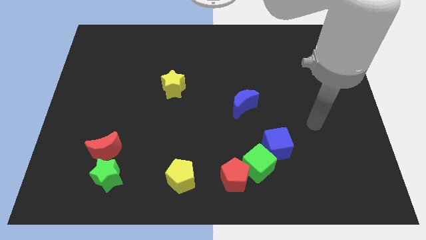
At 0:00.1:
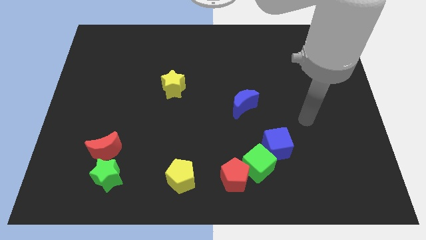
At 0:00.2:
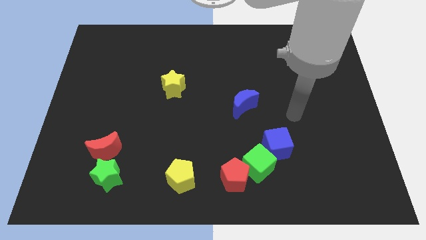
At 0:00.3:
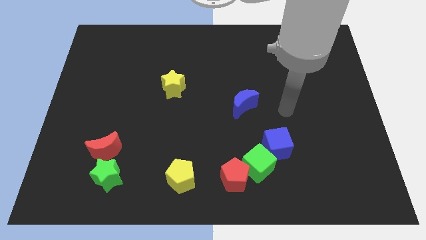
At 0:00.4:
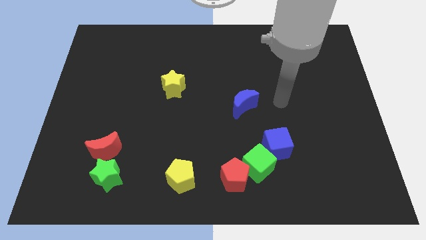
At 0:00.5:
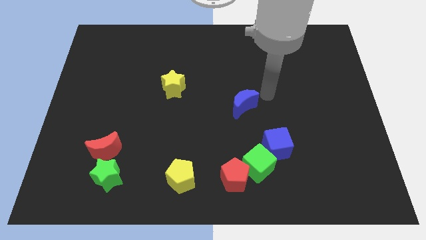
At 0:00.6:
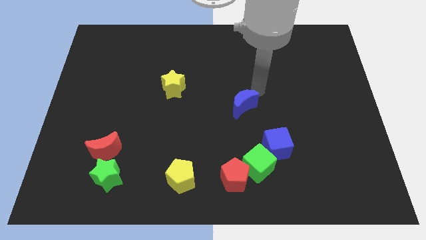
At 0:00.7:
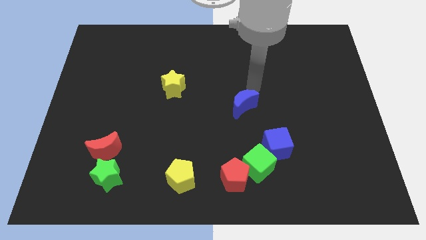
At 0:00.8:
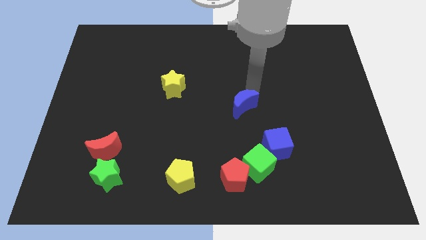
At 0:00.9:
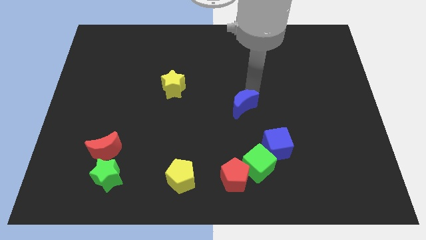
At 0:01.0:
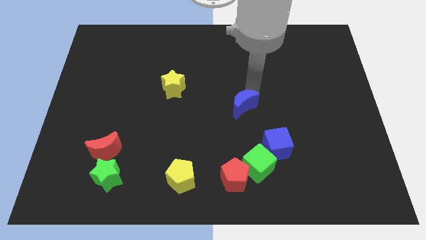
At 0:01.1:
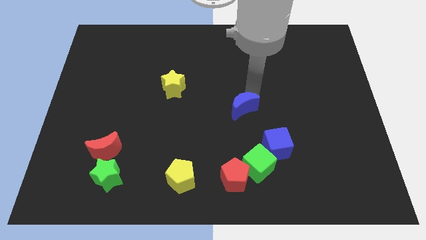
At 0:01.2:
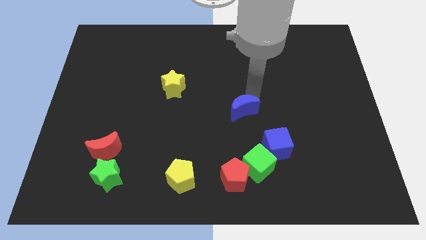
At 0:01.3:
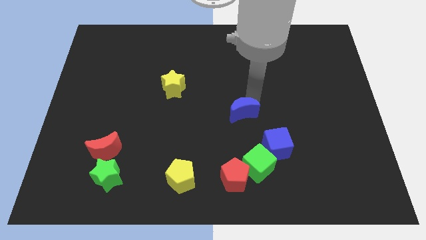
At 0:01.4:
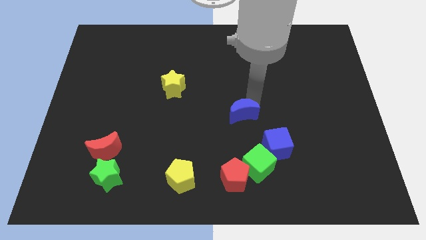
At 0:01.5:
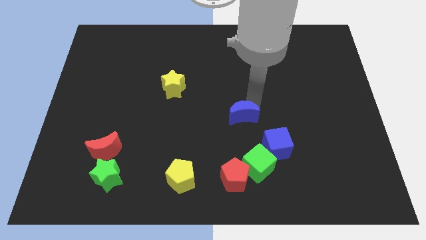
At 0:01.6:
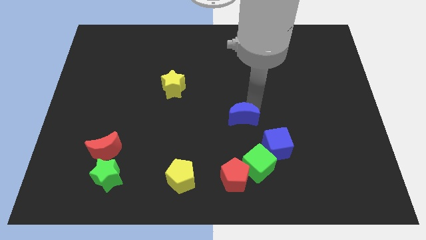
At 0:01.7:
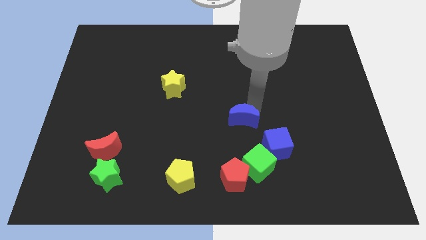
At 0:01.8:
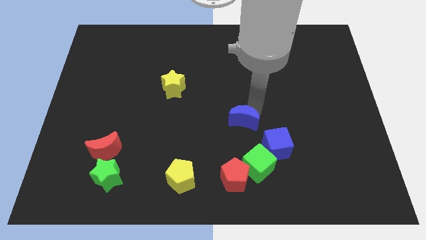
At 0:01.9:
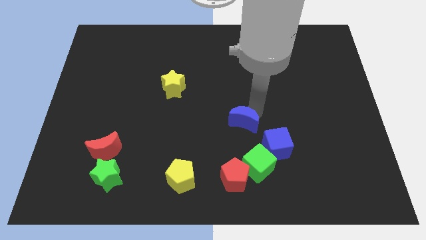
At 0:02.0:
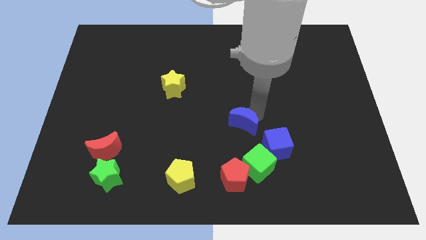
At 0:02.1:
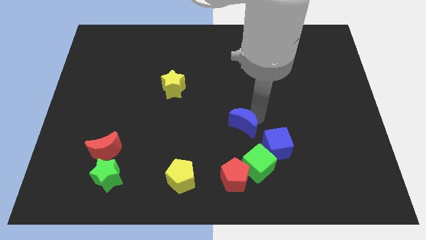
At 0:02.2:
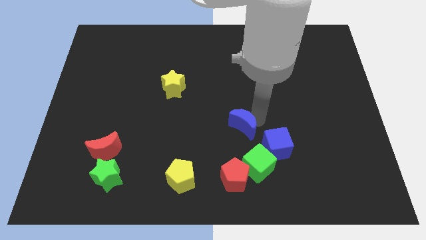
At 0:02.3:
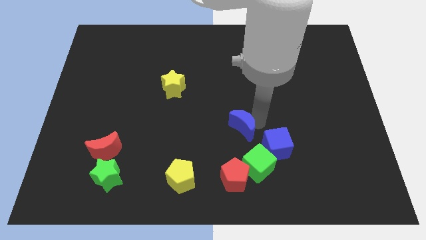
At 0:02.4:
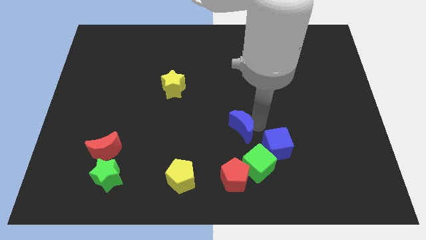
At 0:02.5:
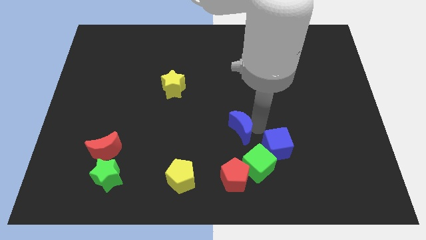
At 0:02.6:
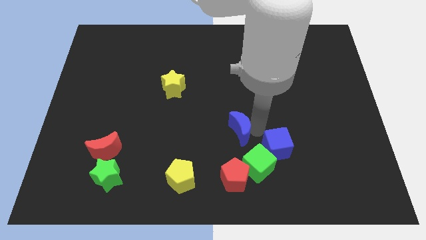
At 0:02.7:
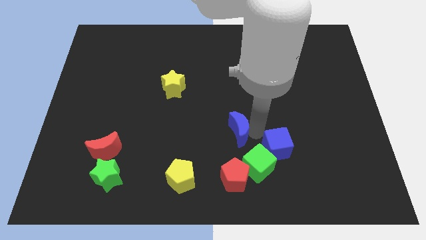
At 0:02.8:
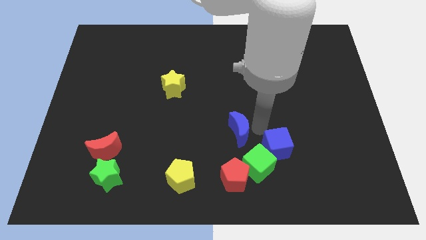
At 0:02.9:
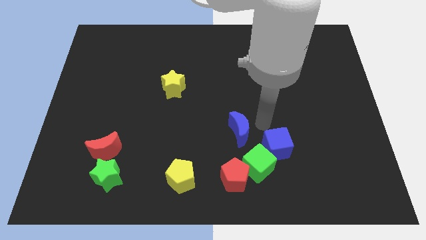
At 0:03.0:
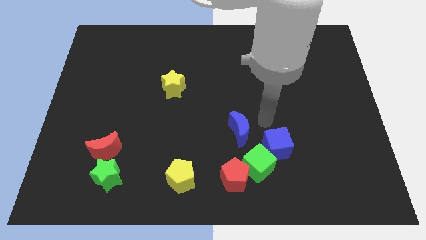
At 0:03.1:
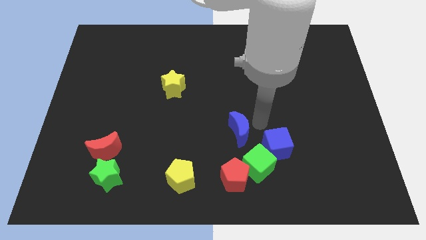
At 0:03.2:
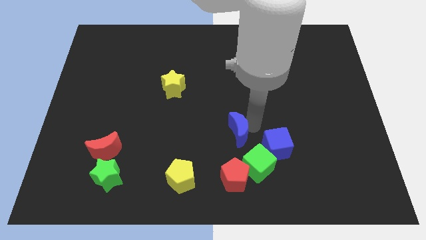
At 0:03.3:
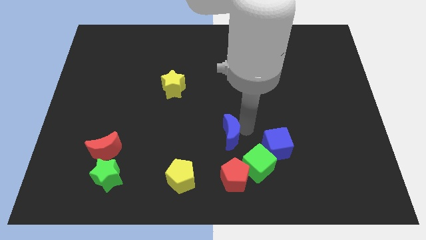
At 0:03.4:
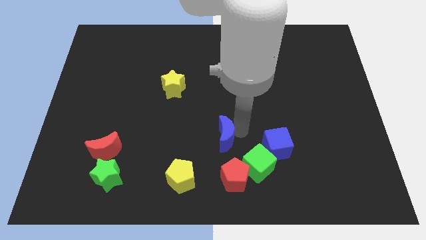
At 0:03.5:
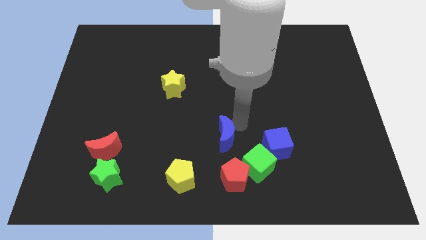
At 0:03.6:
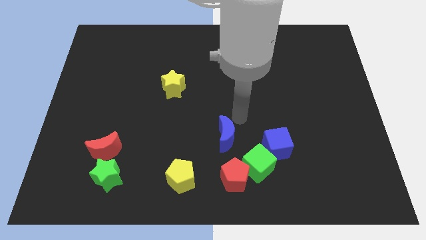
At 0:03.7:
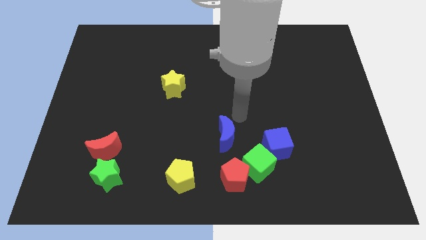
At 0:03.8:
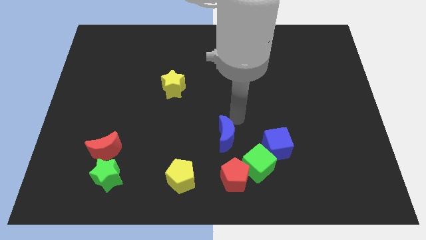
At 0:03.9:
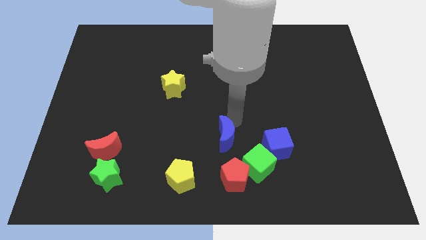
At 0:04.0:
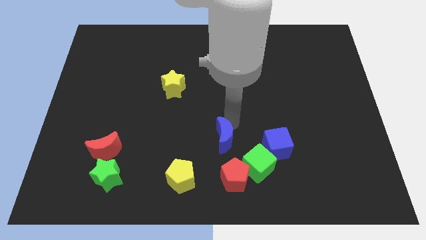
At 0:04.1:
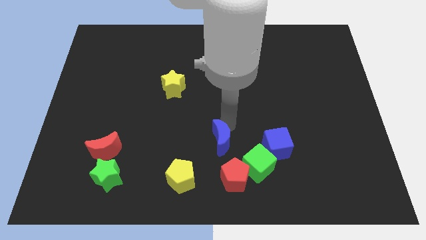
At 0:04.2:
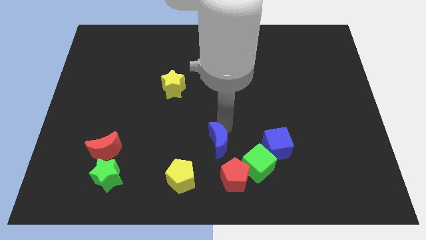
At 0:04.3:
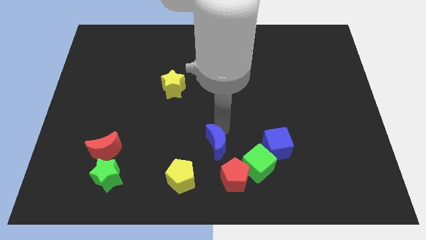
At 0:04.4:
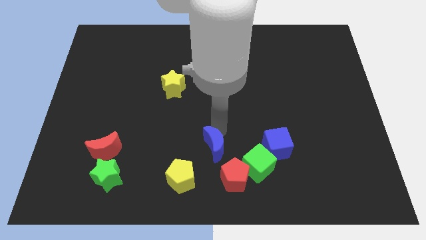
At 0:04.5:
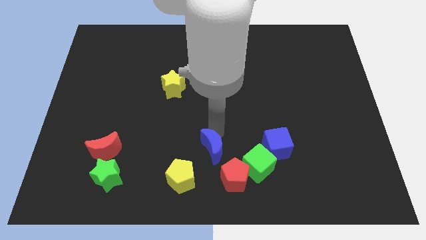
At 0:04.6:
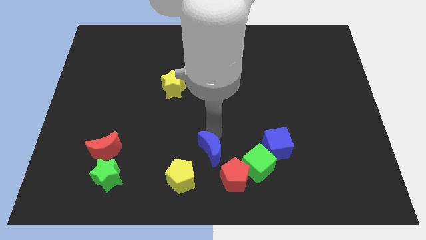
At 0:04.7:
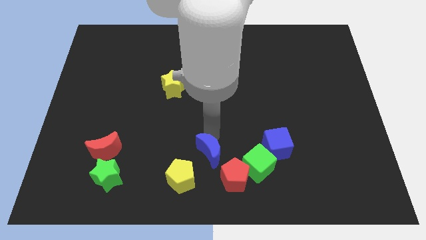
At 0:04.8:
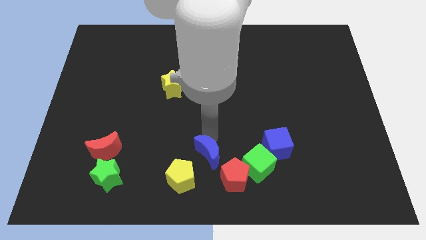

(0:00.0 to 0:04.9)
put the blue moon to the bottom side

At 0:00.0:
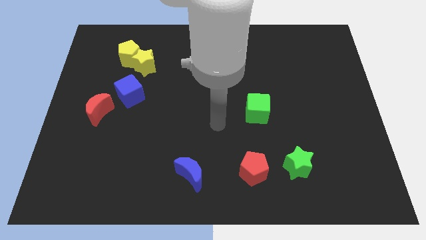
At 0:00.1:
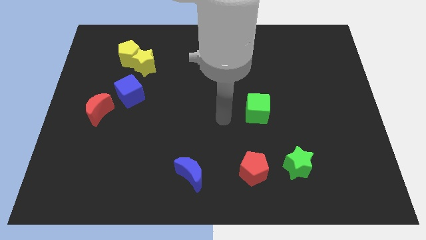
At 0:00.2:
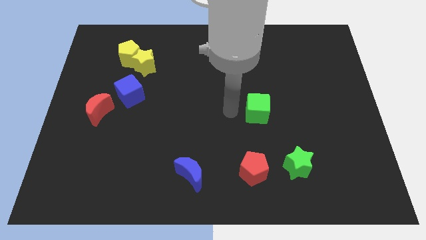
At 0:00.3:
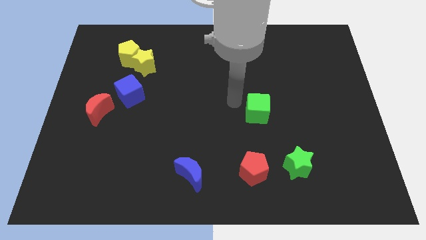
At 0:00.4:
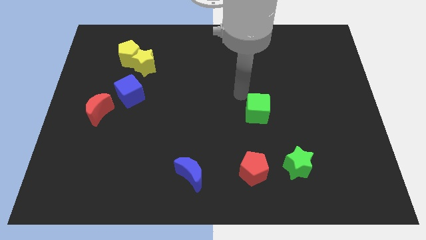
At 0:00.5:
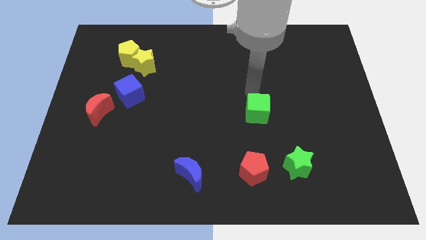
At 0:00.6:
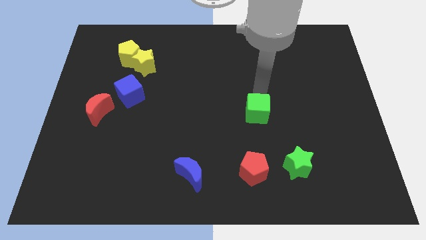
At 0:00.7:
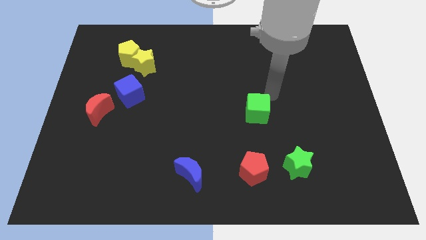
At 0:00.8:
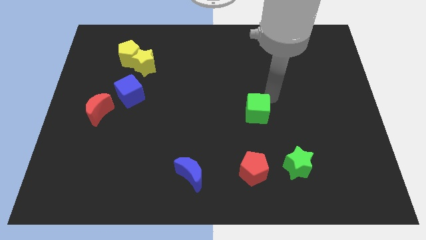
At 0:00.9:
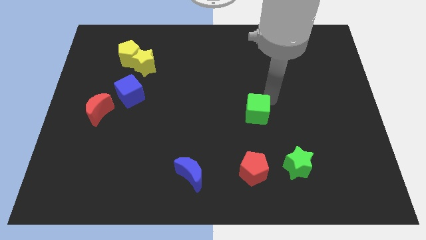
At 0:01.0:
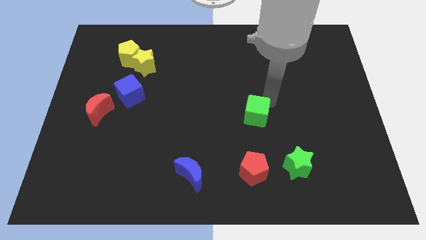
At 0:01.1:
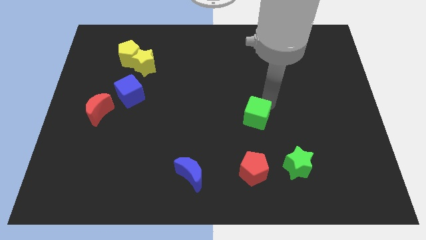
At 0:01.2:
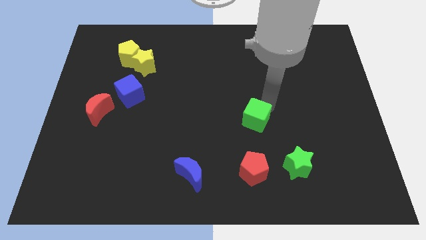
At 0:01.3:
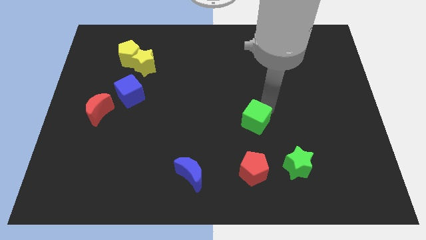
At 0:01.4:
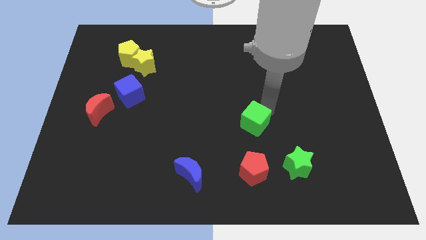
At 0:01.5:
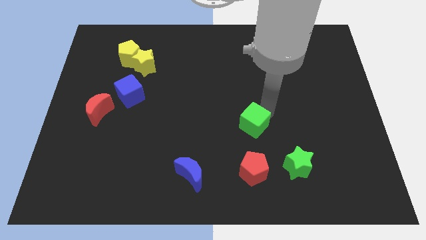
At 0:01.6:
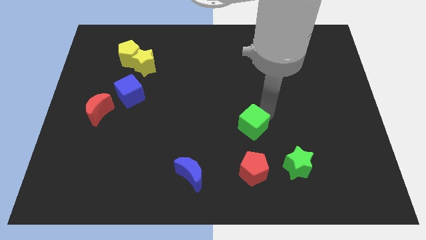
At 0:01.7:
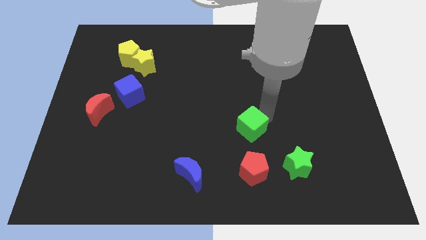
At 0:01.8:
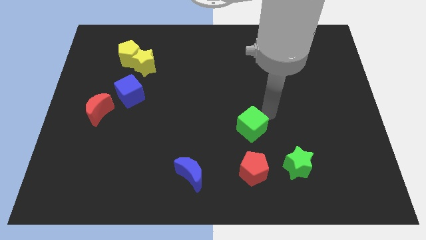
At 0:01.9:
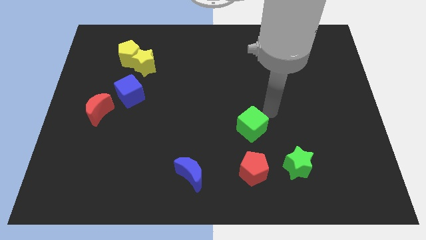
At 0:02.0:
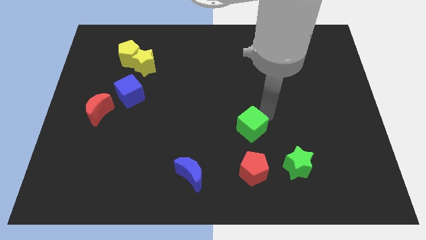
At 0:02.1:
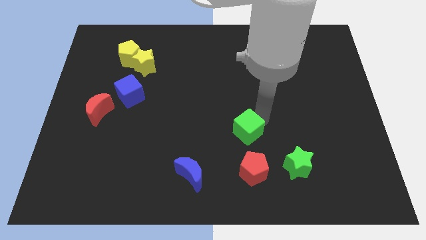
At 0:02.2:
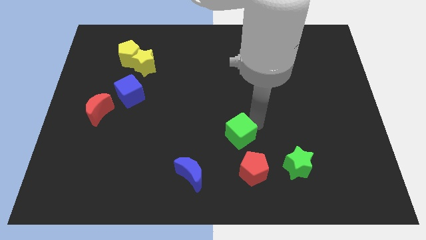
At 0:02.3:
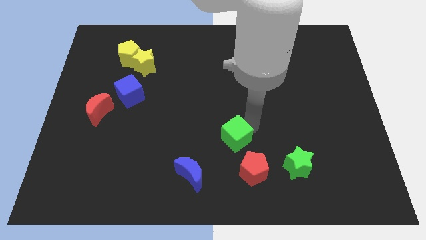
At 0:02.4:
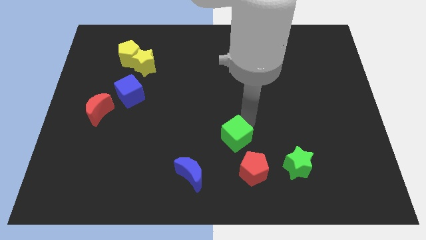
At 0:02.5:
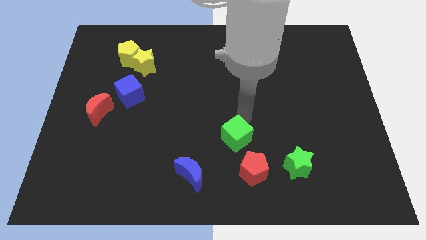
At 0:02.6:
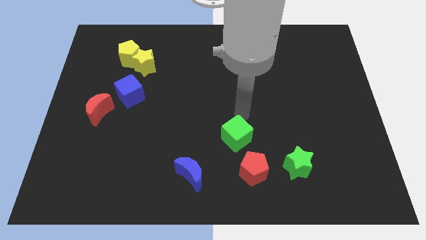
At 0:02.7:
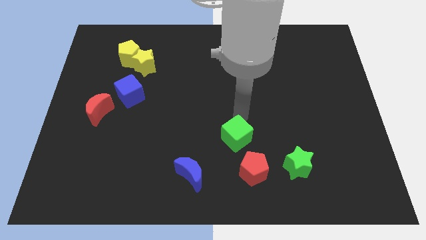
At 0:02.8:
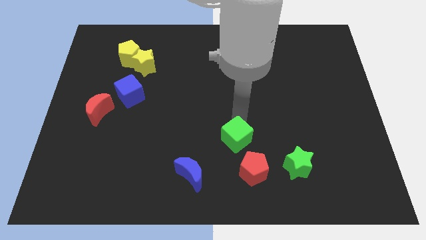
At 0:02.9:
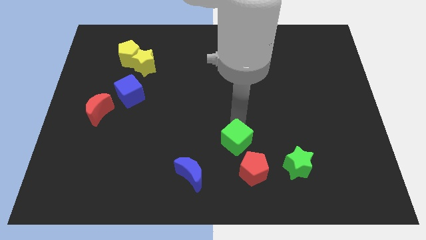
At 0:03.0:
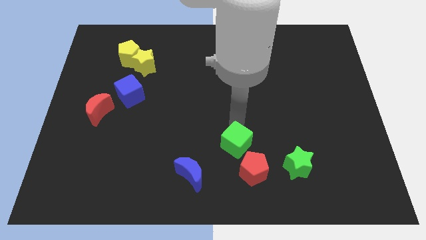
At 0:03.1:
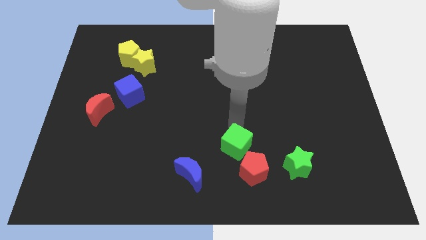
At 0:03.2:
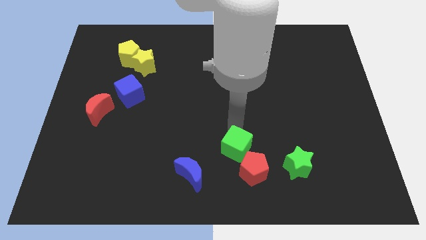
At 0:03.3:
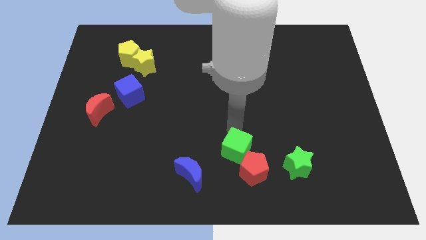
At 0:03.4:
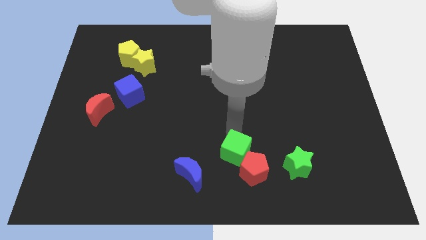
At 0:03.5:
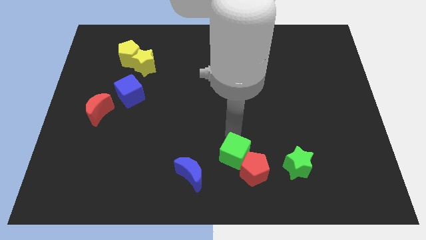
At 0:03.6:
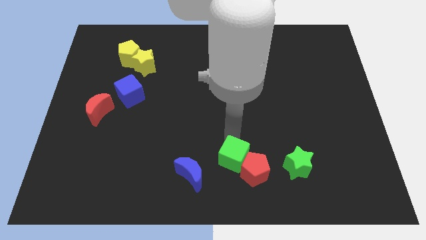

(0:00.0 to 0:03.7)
move the green cube to the bottom side
